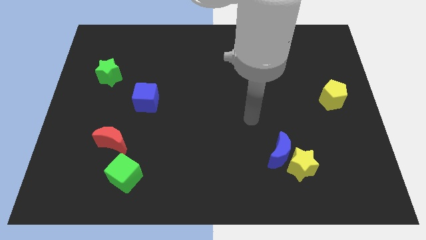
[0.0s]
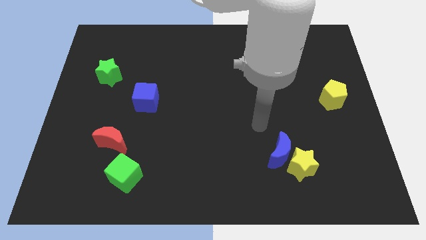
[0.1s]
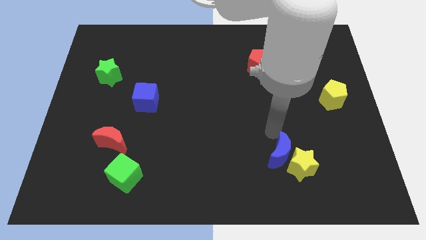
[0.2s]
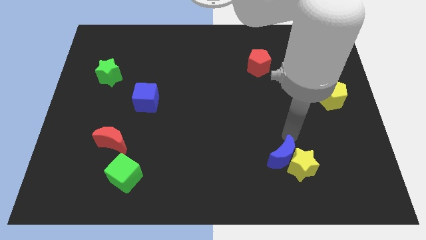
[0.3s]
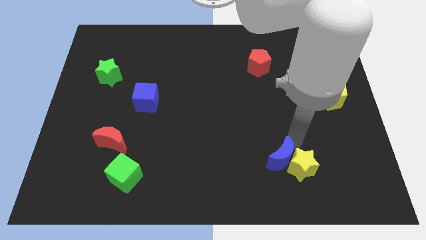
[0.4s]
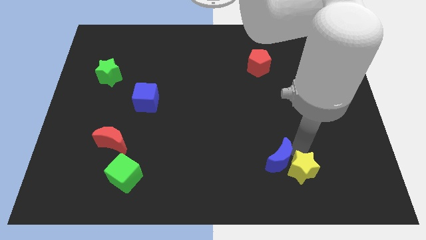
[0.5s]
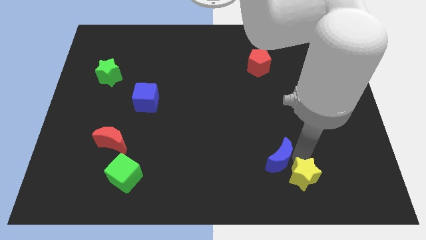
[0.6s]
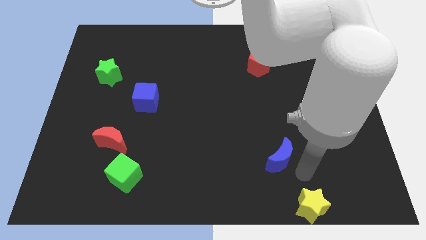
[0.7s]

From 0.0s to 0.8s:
pull the blue moon apart from the yellow star

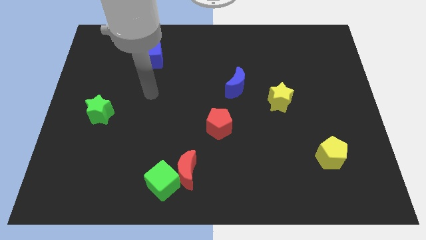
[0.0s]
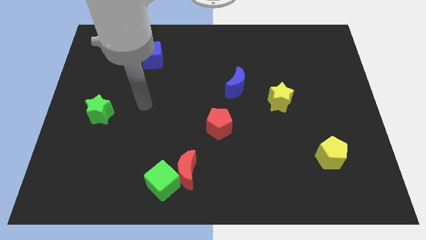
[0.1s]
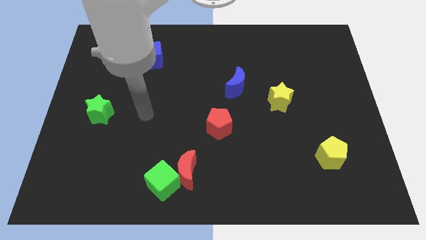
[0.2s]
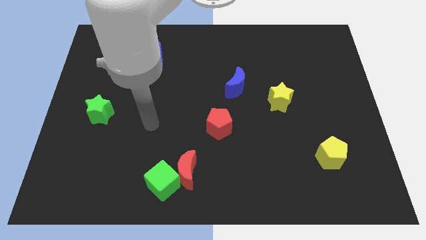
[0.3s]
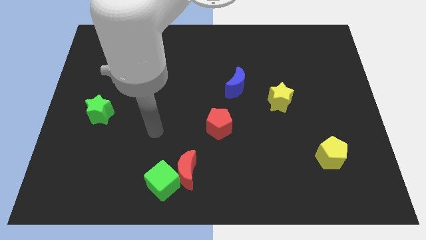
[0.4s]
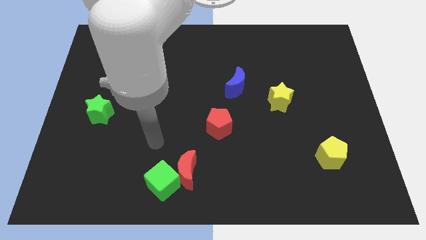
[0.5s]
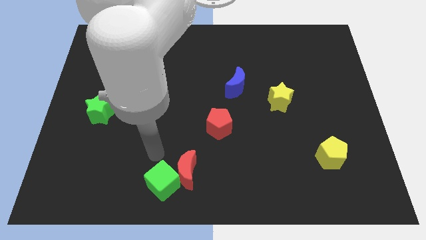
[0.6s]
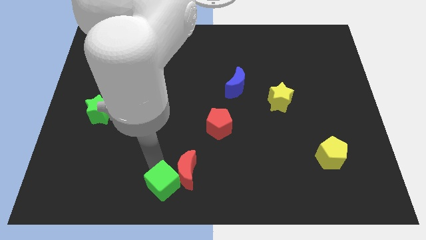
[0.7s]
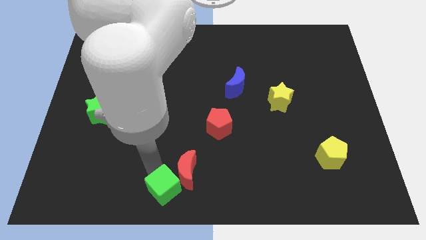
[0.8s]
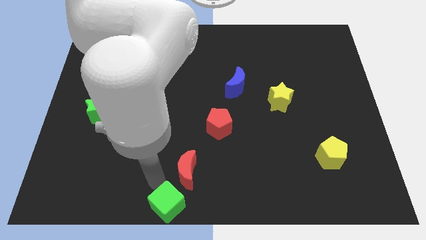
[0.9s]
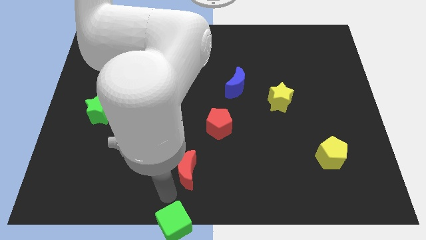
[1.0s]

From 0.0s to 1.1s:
pull the red moon apart from the green cube

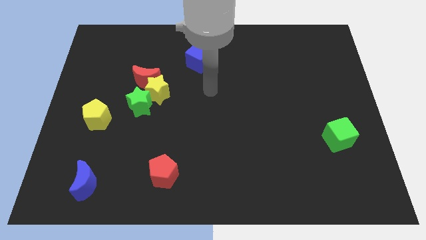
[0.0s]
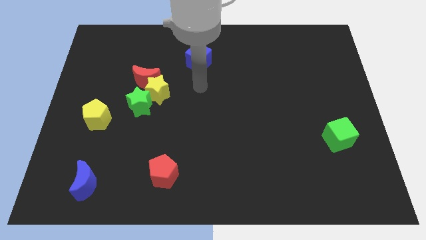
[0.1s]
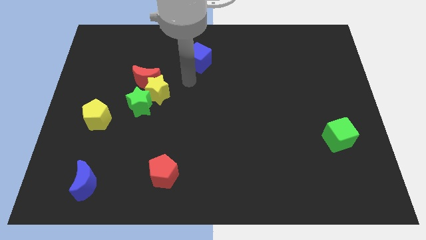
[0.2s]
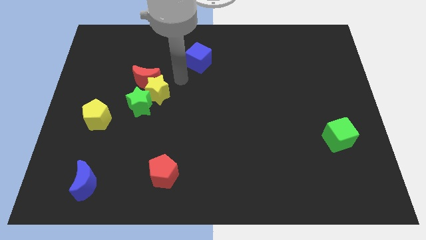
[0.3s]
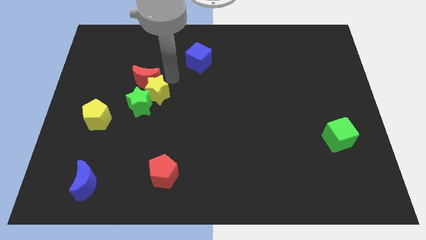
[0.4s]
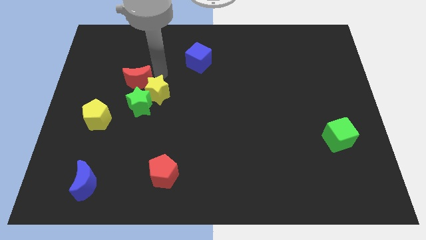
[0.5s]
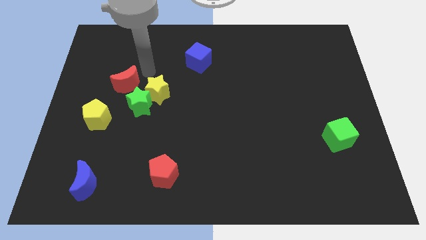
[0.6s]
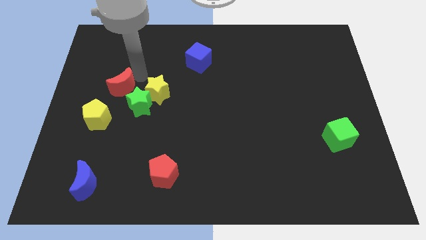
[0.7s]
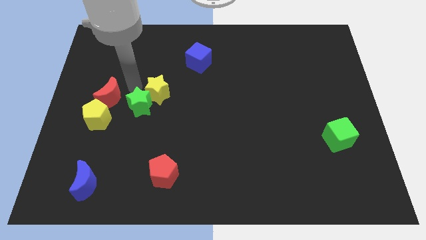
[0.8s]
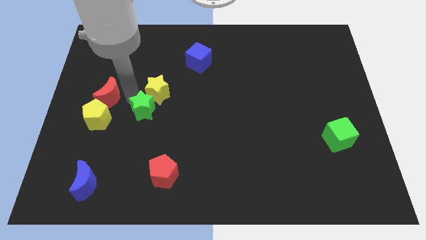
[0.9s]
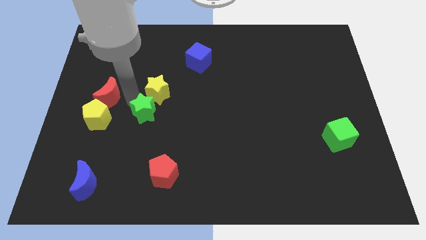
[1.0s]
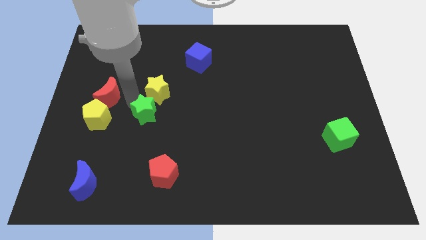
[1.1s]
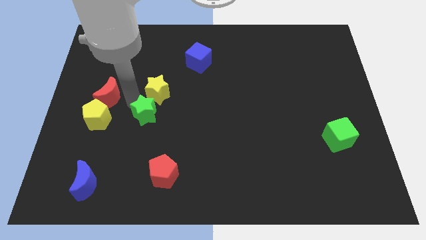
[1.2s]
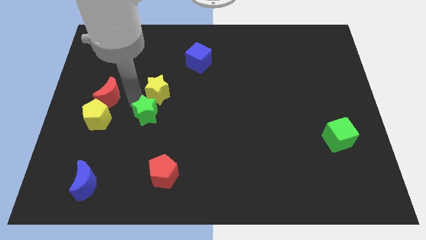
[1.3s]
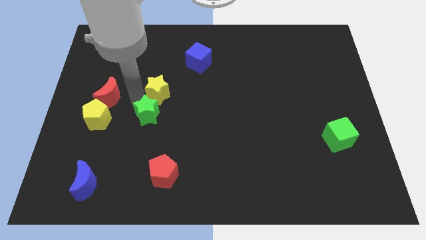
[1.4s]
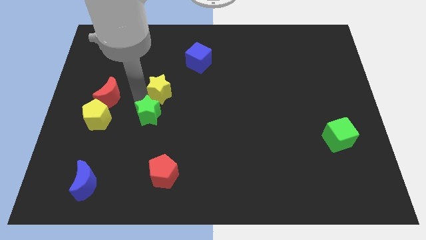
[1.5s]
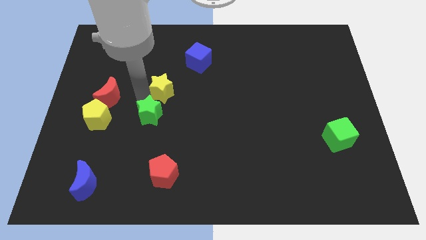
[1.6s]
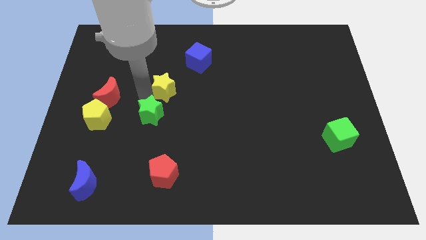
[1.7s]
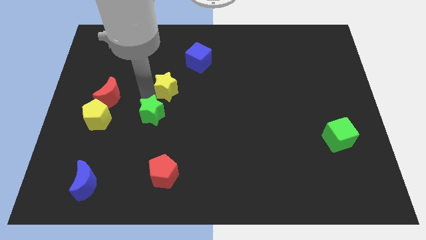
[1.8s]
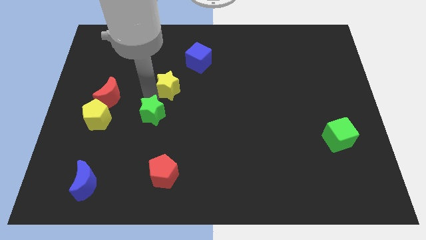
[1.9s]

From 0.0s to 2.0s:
pull the yellow star apart from the red moon and green star

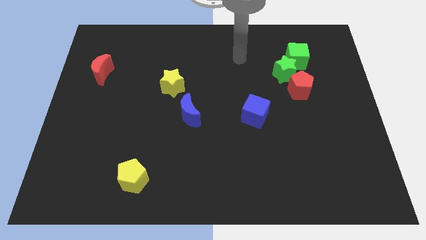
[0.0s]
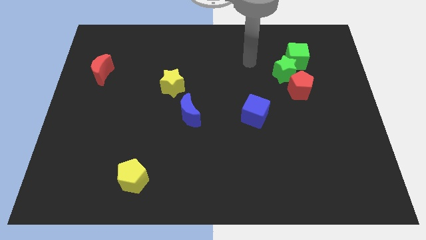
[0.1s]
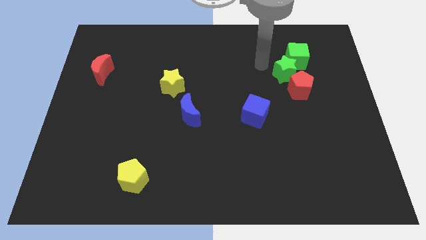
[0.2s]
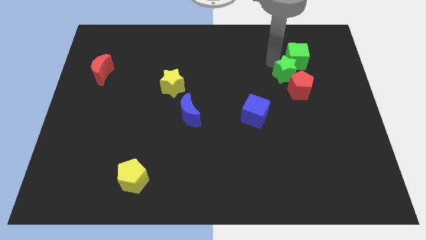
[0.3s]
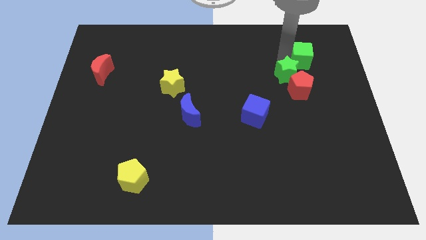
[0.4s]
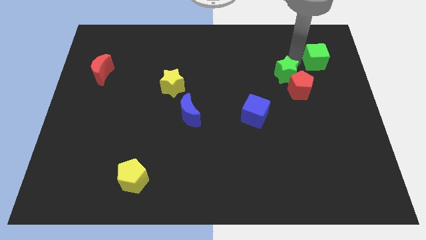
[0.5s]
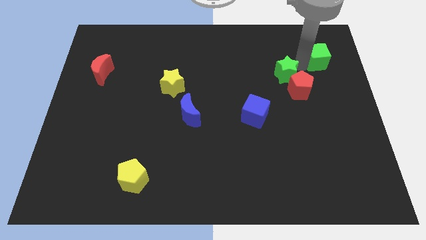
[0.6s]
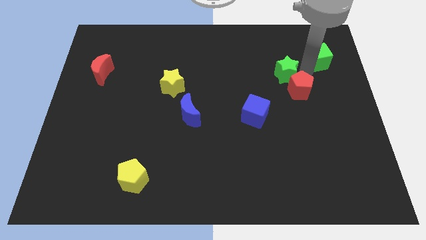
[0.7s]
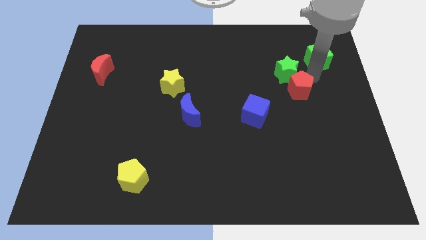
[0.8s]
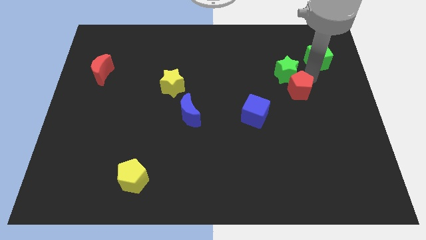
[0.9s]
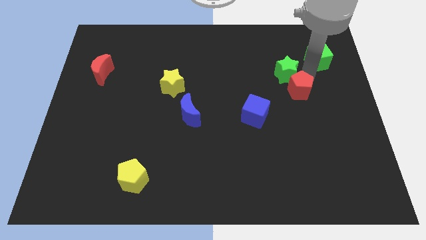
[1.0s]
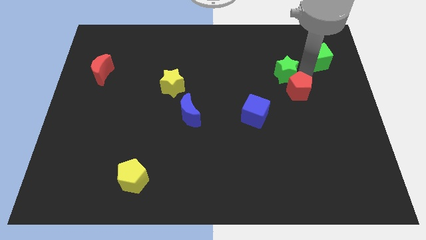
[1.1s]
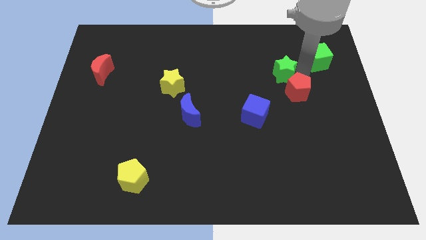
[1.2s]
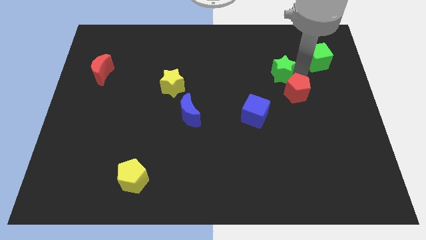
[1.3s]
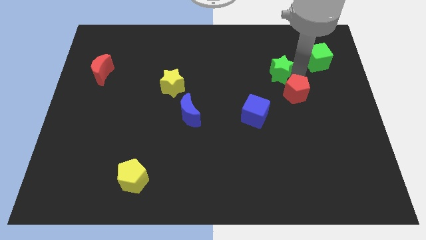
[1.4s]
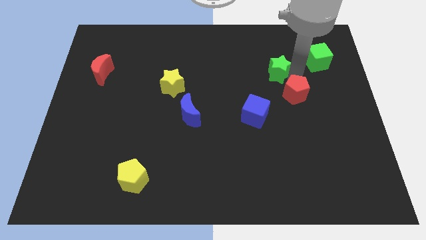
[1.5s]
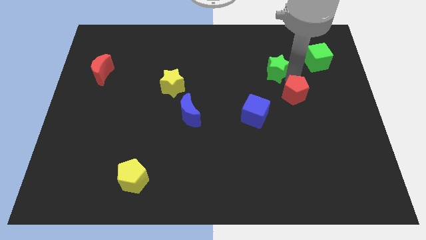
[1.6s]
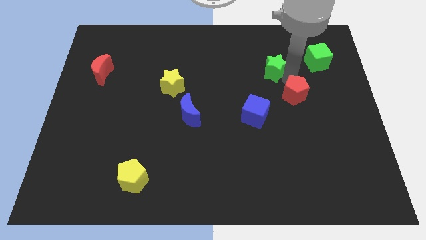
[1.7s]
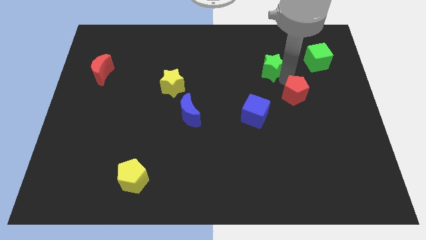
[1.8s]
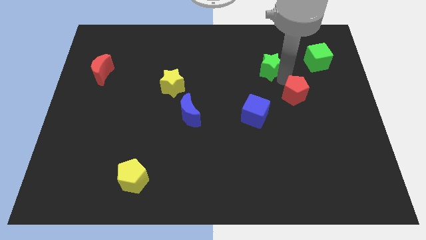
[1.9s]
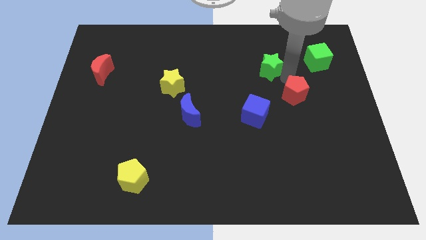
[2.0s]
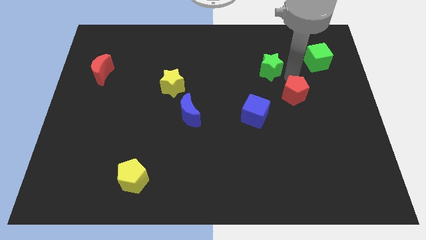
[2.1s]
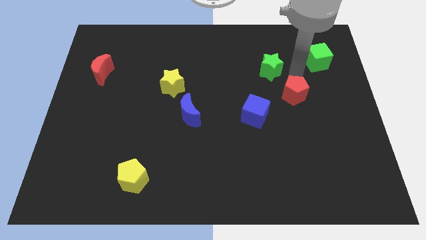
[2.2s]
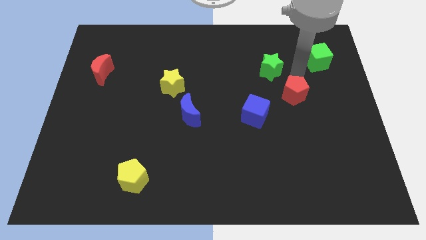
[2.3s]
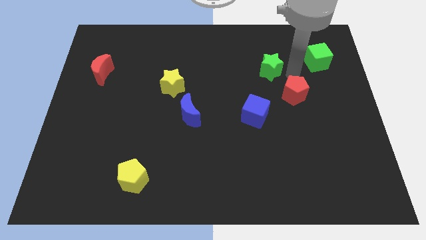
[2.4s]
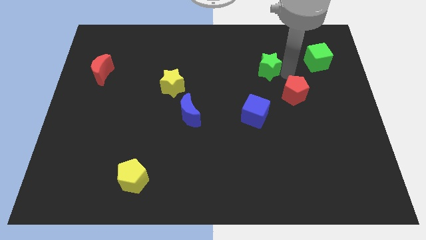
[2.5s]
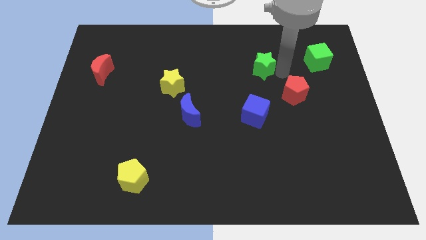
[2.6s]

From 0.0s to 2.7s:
move the green star away from the green cube and red pentagon

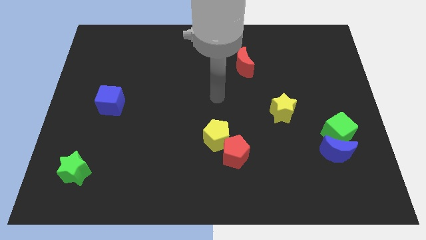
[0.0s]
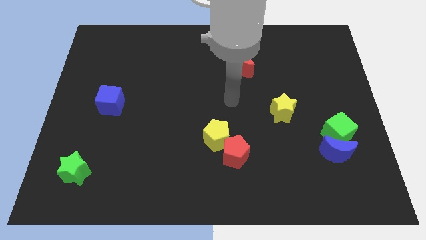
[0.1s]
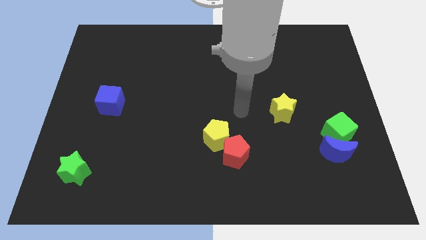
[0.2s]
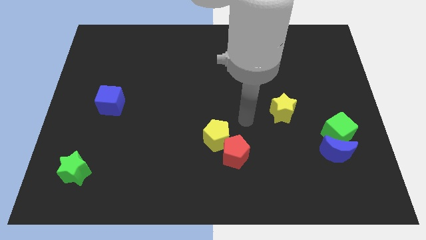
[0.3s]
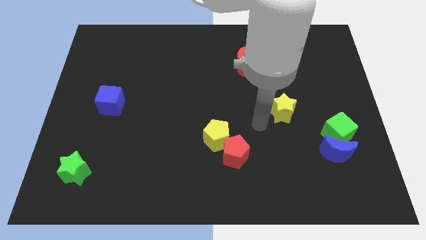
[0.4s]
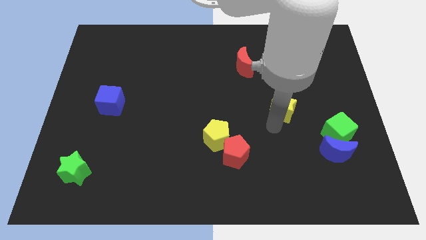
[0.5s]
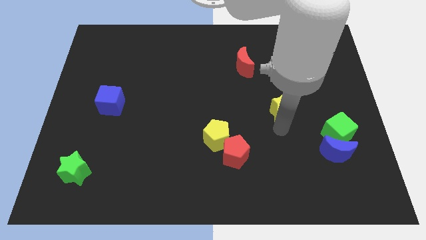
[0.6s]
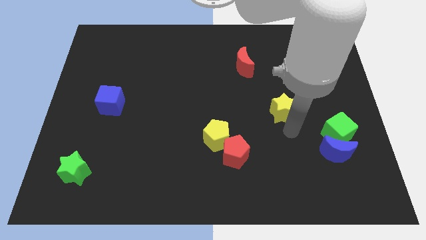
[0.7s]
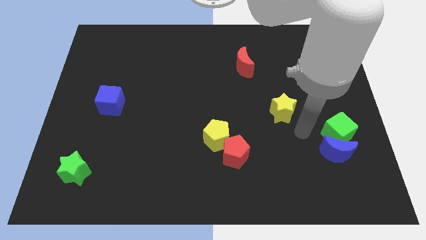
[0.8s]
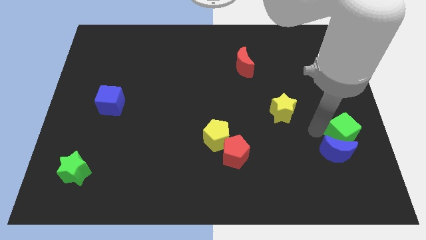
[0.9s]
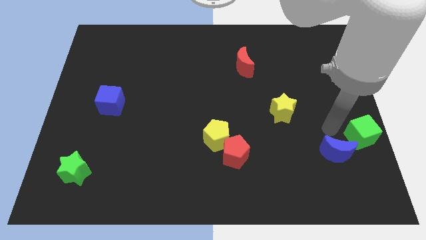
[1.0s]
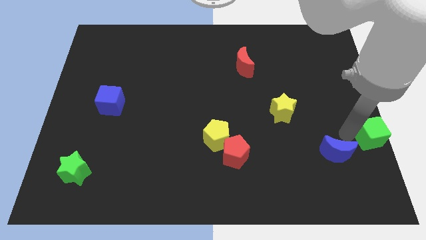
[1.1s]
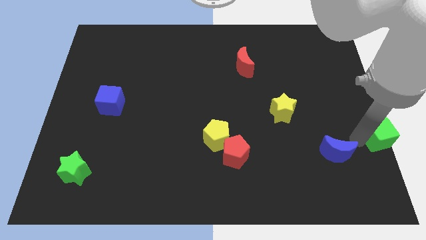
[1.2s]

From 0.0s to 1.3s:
pull the blue moon apart from the green cube

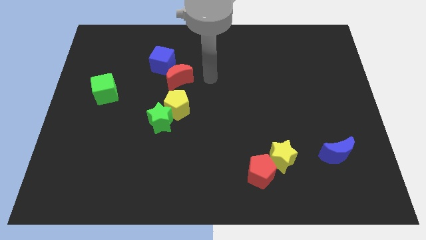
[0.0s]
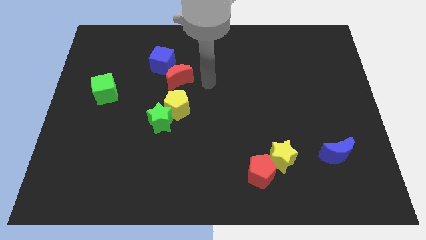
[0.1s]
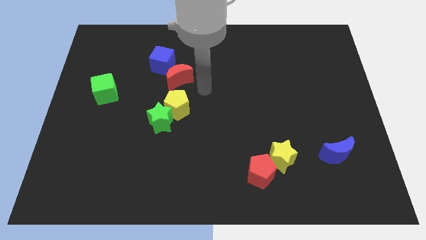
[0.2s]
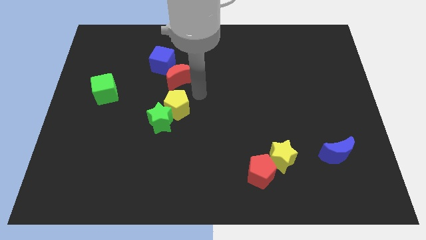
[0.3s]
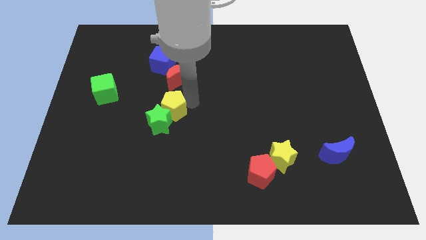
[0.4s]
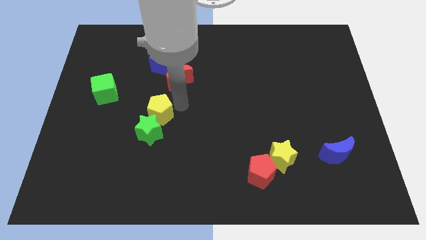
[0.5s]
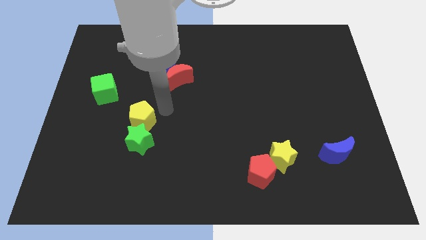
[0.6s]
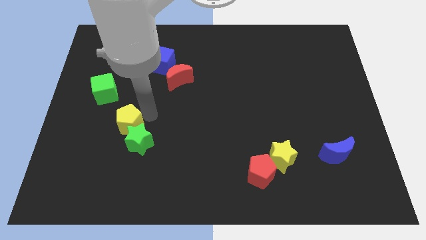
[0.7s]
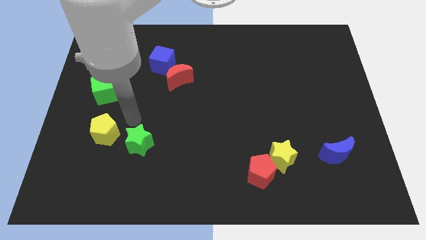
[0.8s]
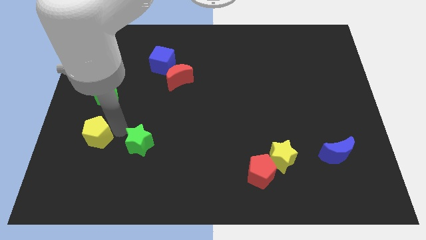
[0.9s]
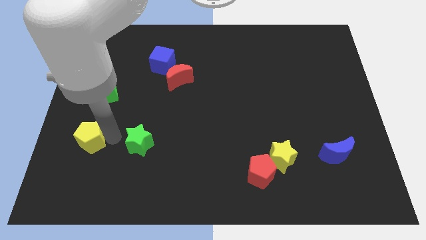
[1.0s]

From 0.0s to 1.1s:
move the green star away from the yellow pentagon

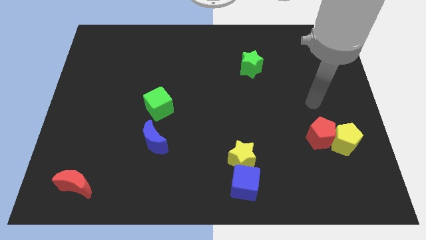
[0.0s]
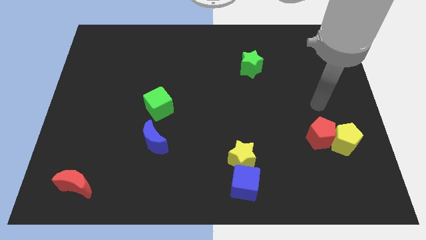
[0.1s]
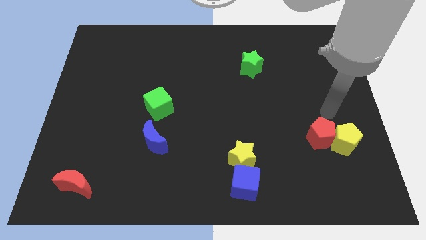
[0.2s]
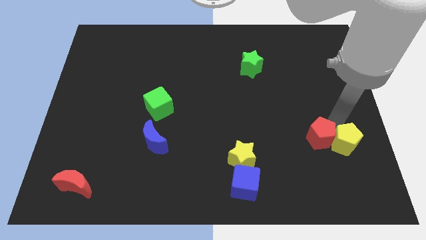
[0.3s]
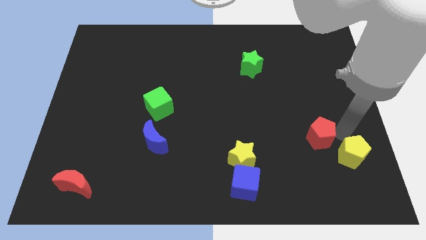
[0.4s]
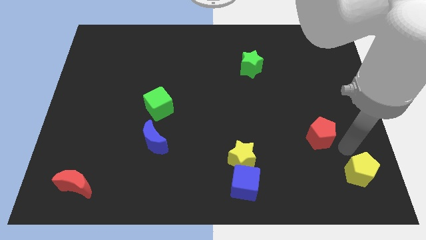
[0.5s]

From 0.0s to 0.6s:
move the red pentagon away from the yellow pentagon
